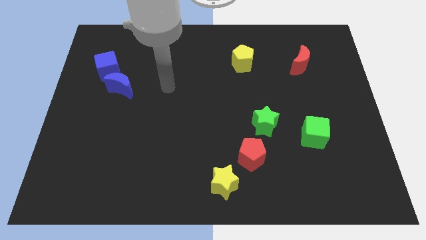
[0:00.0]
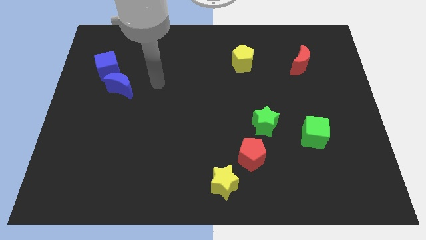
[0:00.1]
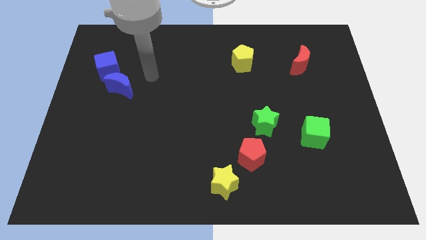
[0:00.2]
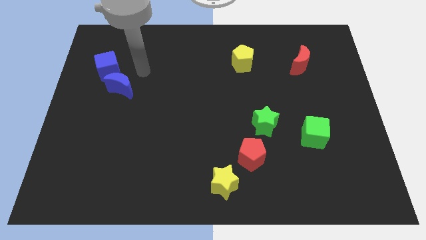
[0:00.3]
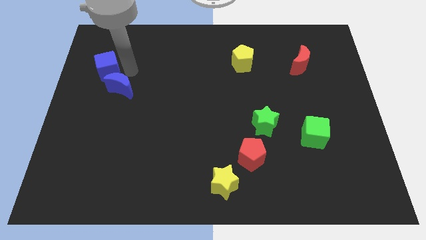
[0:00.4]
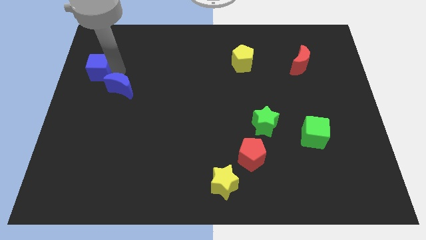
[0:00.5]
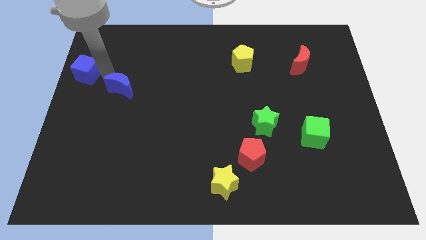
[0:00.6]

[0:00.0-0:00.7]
separate the blue moon from the blue cube

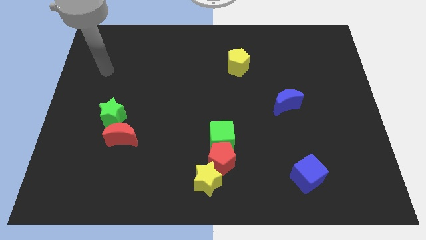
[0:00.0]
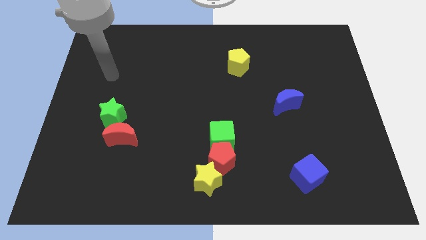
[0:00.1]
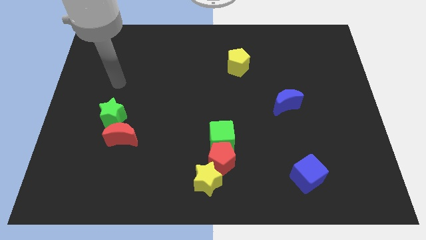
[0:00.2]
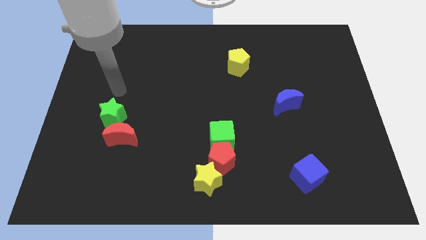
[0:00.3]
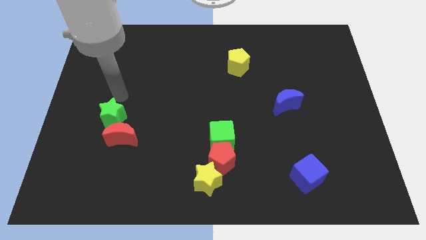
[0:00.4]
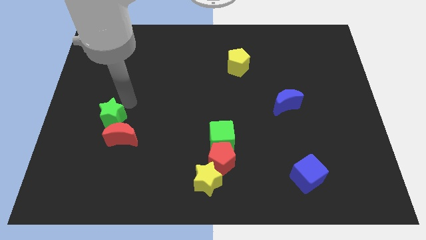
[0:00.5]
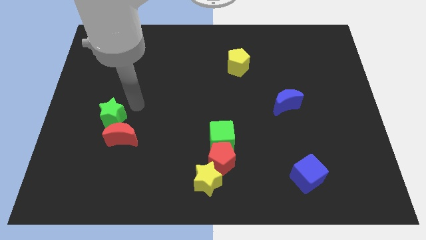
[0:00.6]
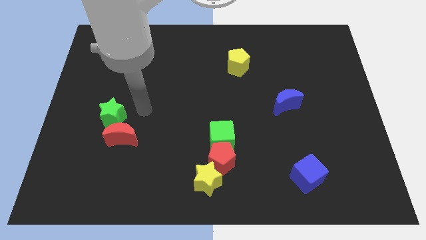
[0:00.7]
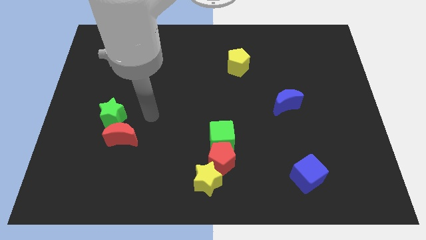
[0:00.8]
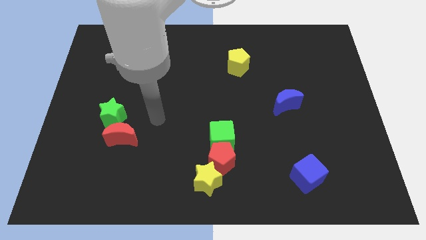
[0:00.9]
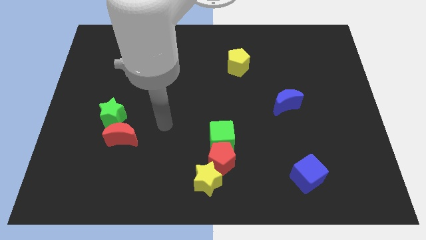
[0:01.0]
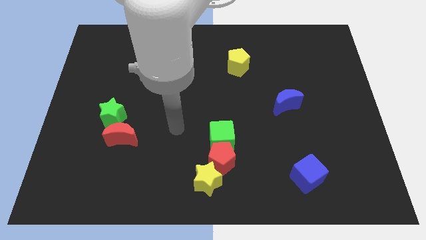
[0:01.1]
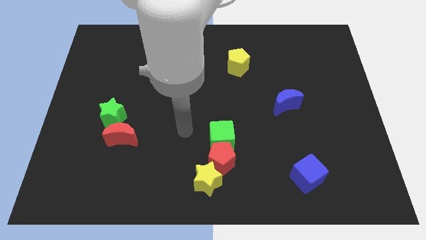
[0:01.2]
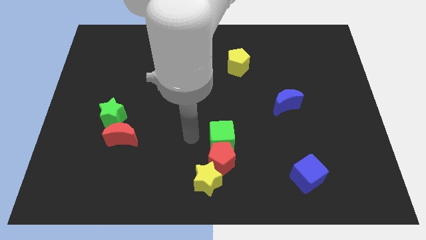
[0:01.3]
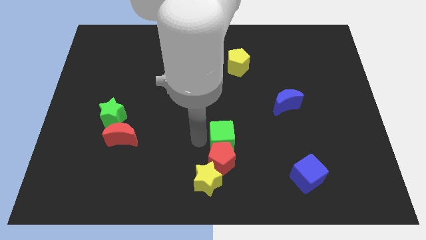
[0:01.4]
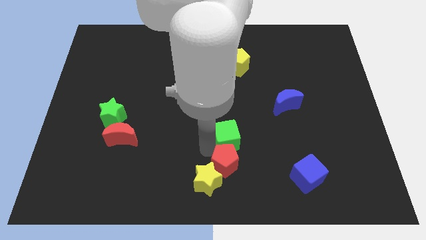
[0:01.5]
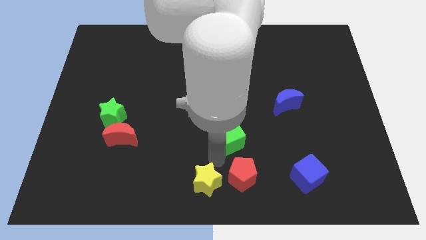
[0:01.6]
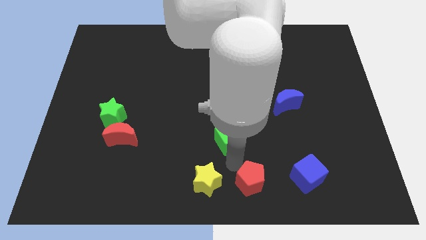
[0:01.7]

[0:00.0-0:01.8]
separate the green cube from the red pentagon

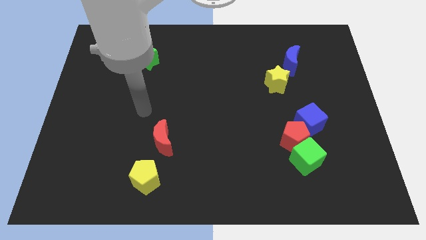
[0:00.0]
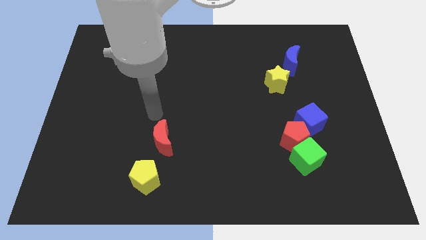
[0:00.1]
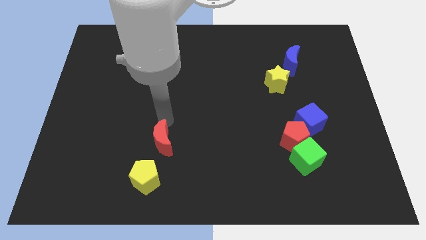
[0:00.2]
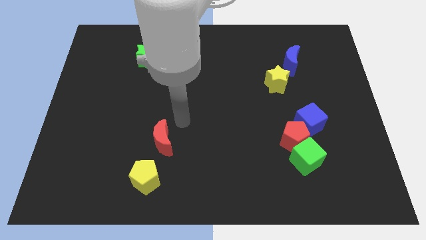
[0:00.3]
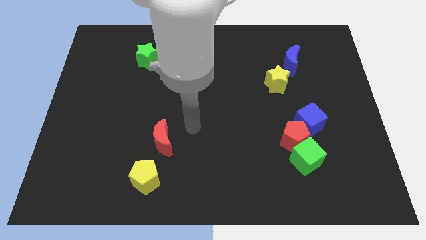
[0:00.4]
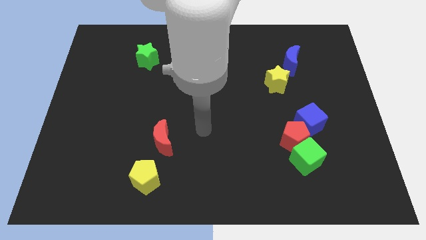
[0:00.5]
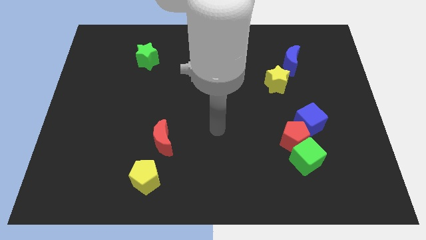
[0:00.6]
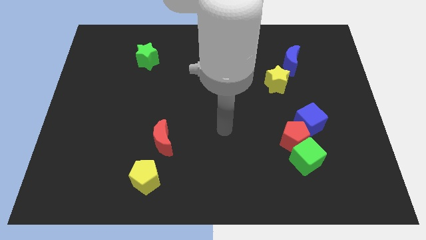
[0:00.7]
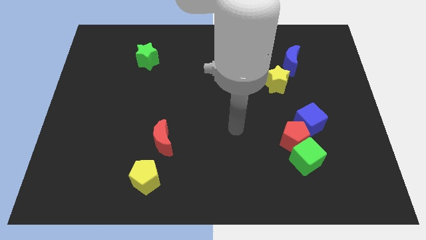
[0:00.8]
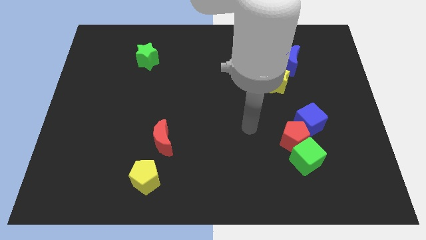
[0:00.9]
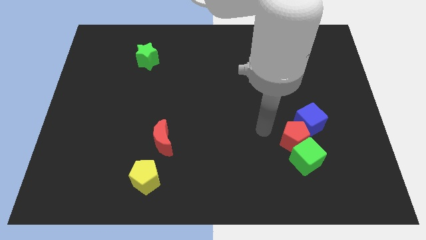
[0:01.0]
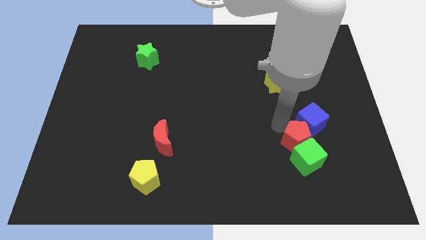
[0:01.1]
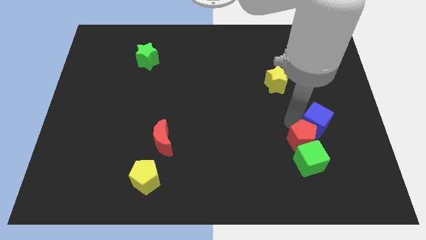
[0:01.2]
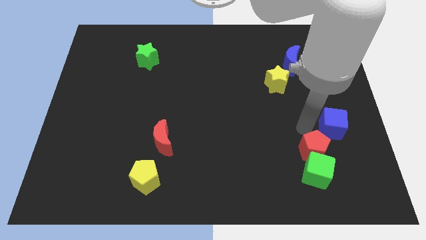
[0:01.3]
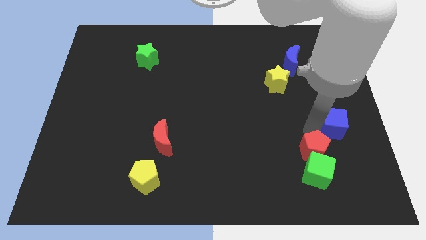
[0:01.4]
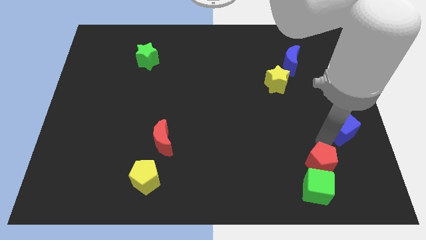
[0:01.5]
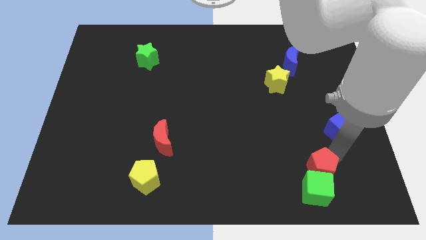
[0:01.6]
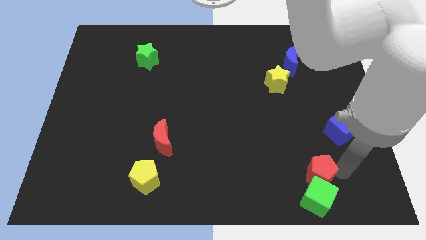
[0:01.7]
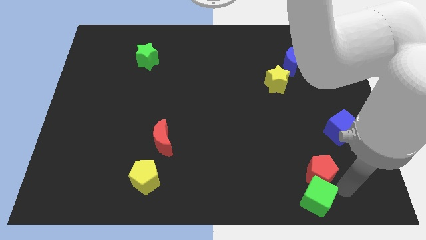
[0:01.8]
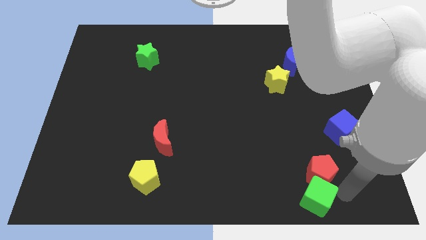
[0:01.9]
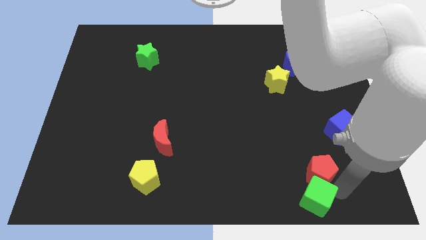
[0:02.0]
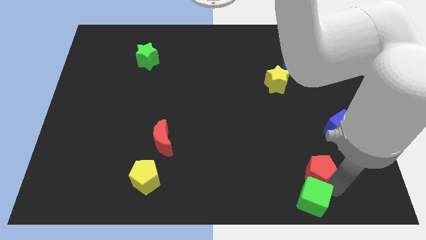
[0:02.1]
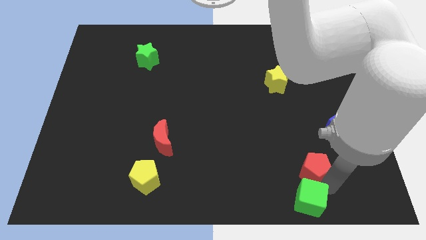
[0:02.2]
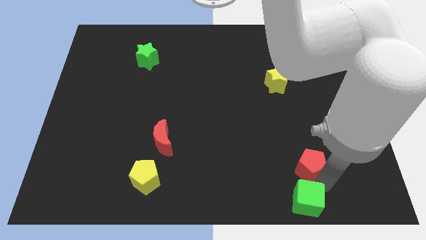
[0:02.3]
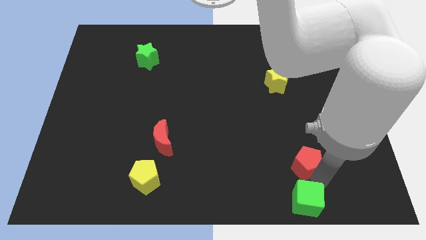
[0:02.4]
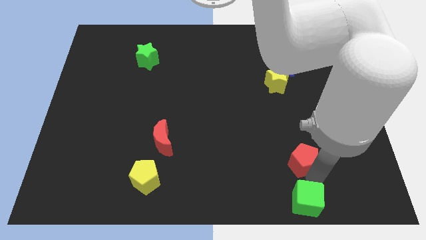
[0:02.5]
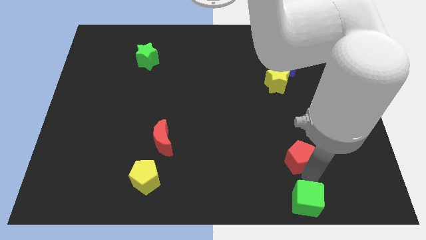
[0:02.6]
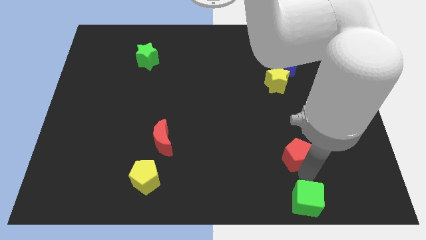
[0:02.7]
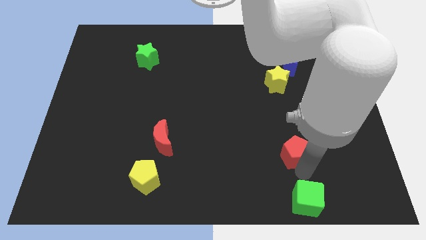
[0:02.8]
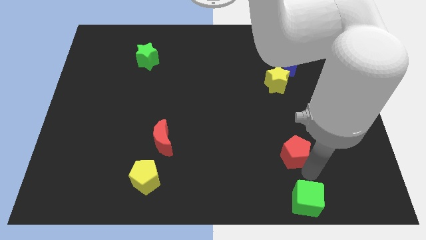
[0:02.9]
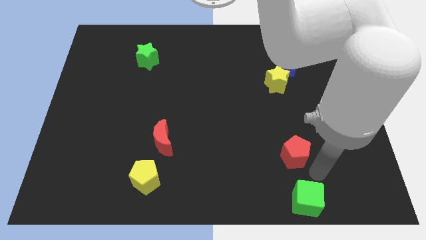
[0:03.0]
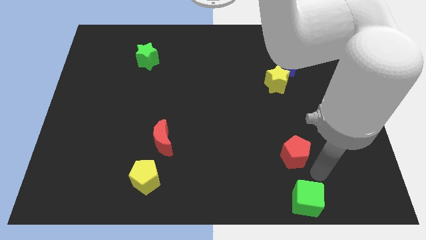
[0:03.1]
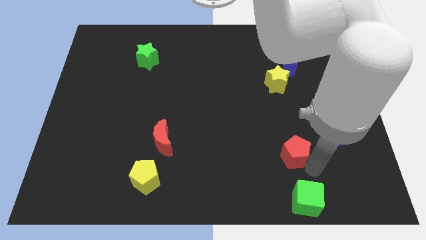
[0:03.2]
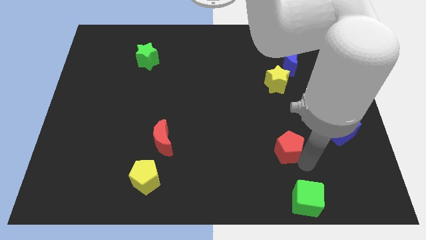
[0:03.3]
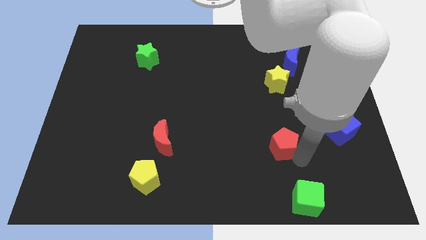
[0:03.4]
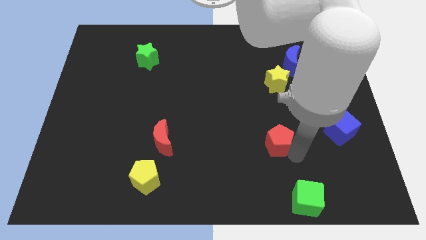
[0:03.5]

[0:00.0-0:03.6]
move the red pentagon away from the green cube and blue cube

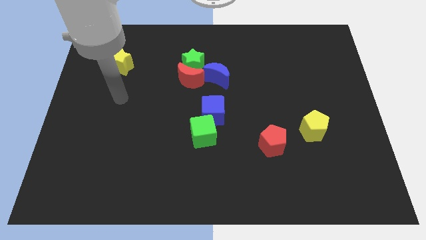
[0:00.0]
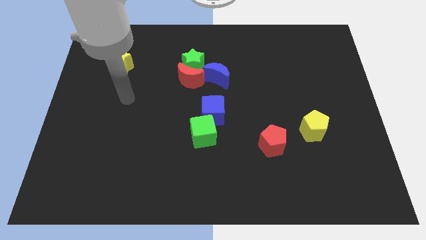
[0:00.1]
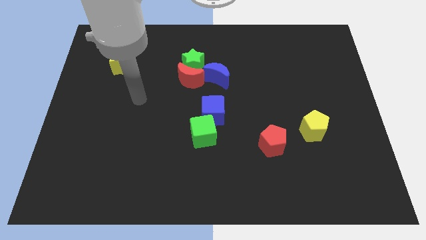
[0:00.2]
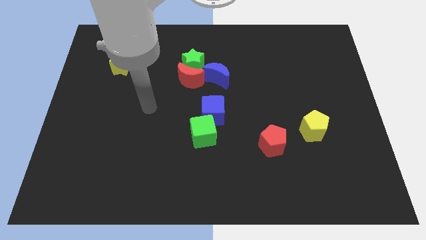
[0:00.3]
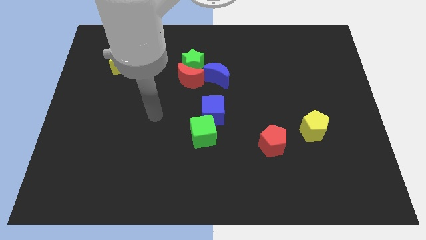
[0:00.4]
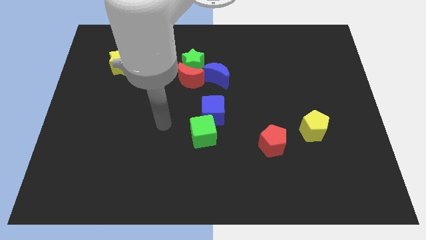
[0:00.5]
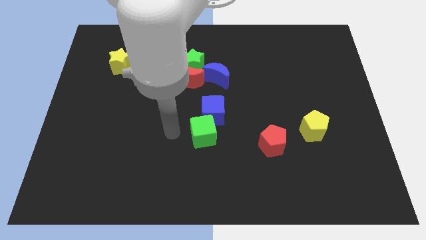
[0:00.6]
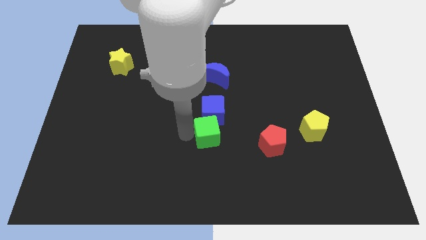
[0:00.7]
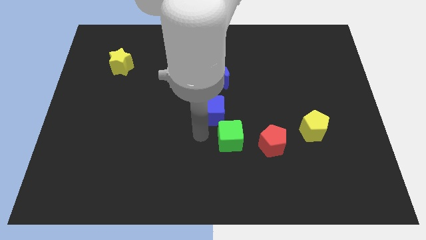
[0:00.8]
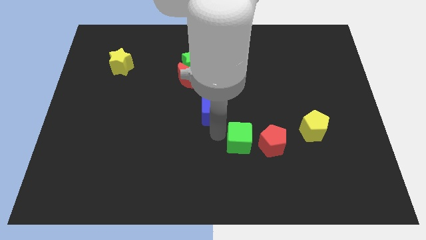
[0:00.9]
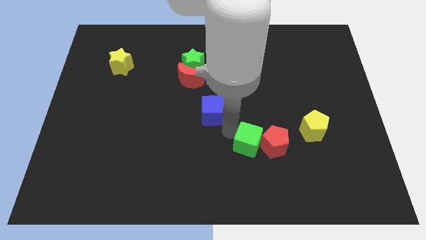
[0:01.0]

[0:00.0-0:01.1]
move the blue cube away from the green cube

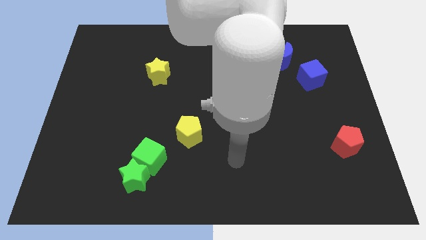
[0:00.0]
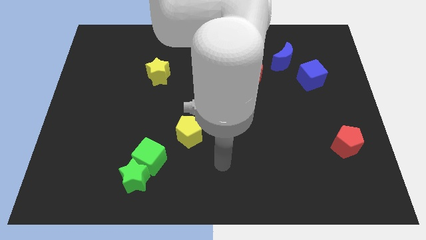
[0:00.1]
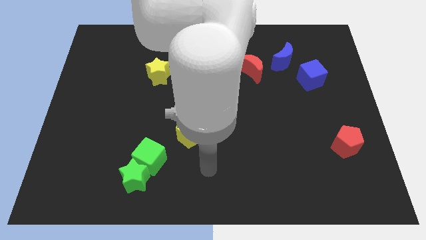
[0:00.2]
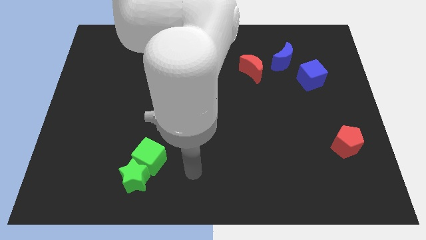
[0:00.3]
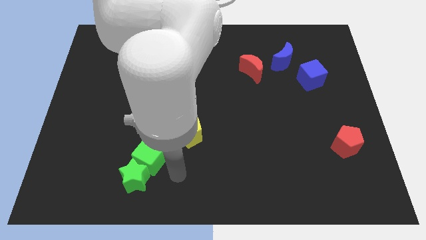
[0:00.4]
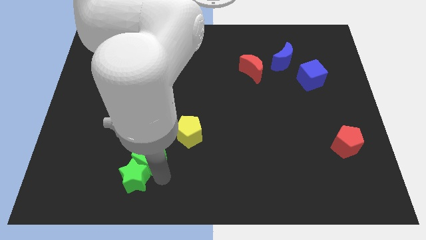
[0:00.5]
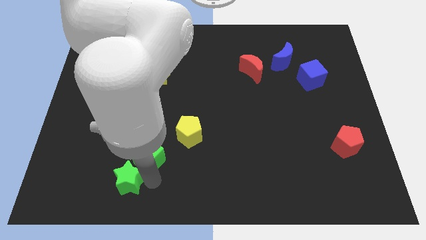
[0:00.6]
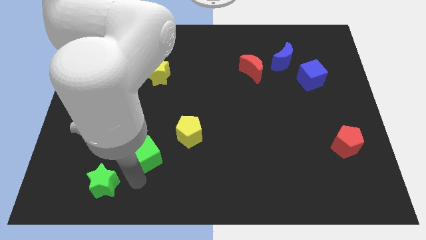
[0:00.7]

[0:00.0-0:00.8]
separate the green cube from the green star

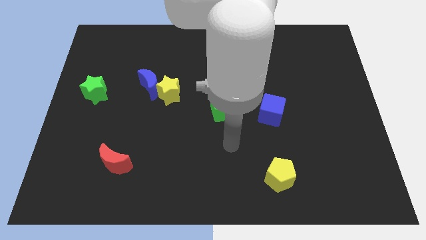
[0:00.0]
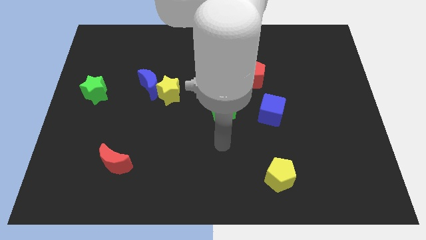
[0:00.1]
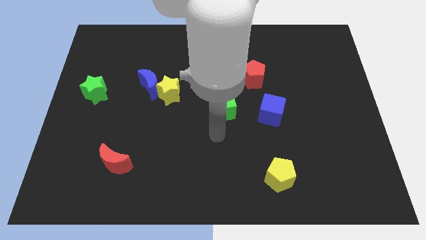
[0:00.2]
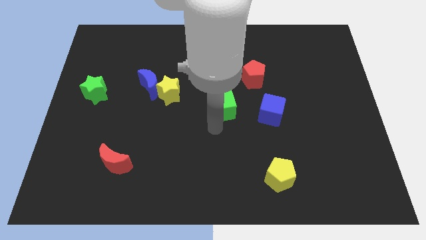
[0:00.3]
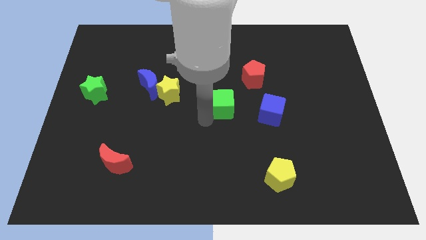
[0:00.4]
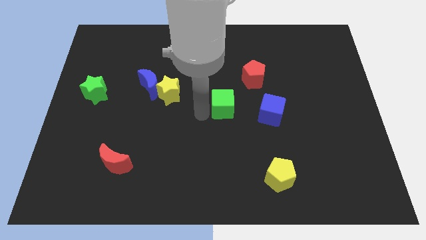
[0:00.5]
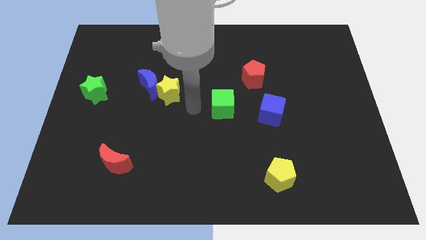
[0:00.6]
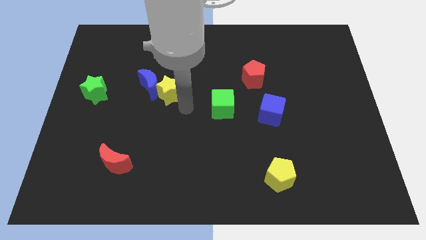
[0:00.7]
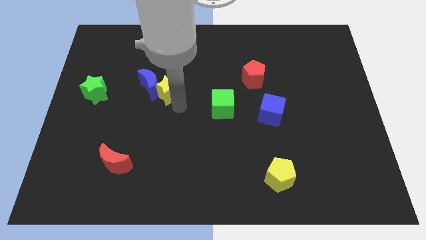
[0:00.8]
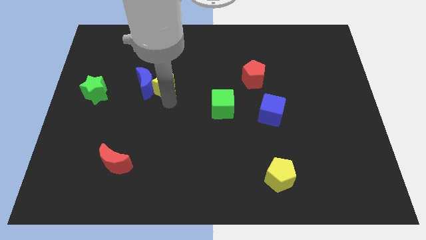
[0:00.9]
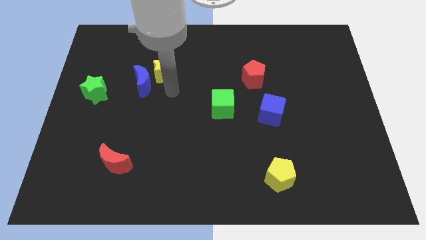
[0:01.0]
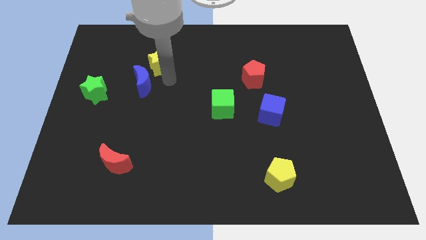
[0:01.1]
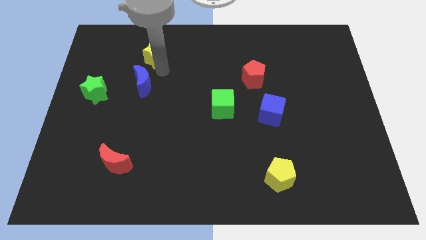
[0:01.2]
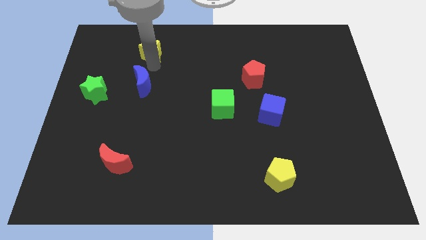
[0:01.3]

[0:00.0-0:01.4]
separate the blue moon from the yellow star
